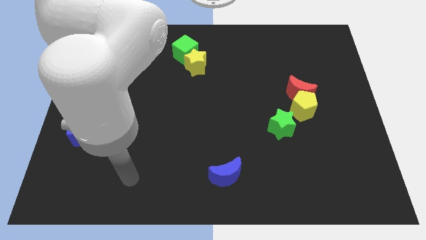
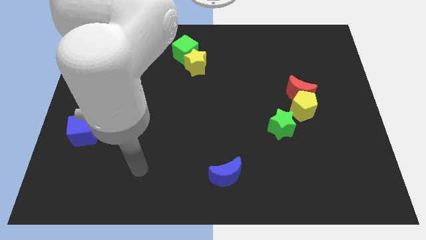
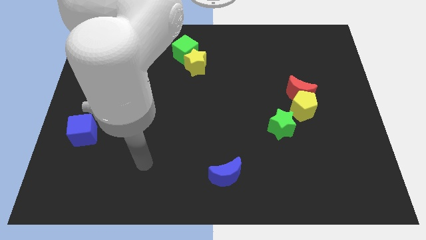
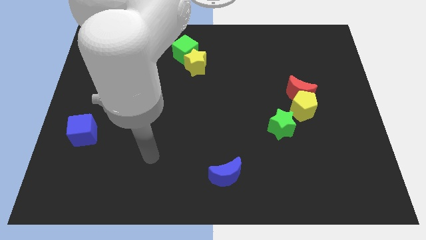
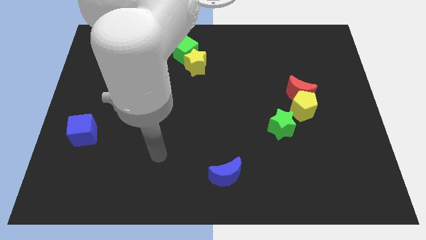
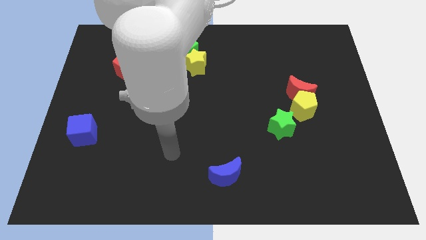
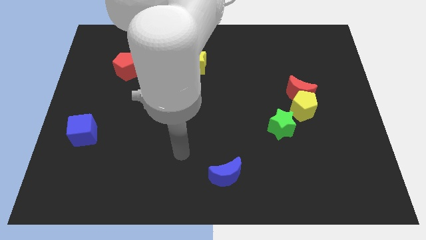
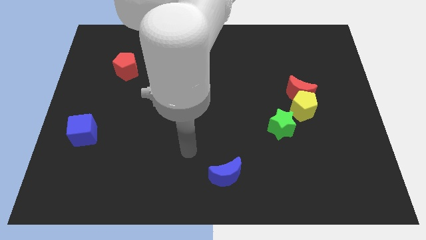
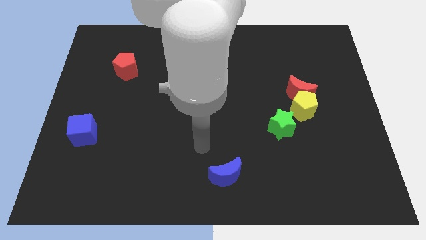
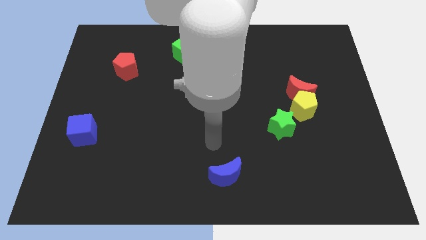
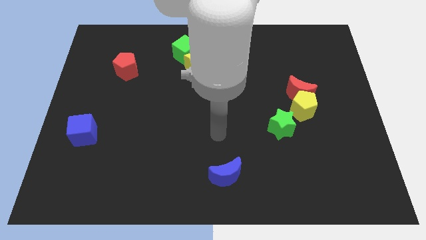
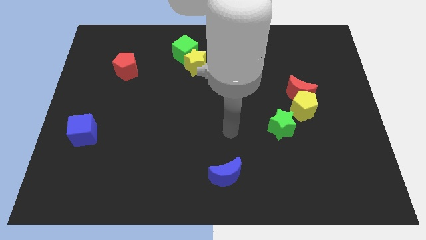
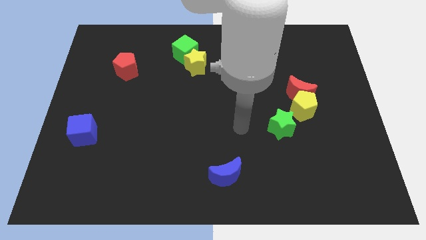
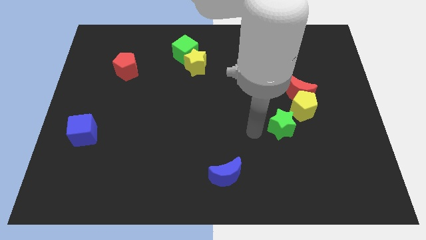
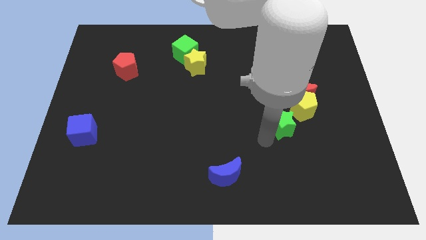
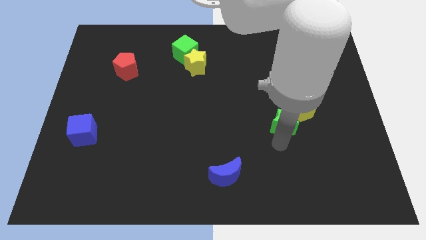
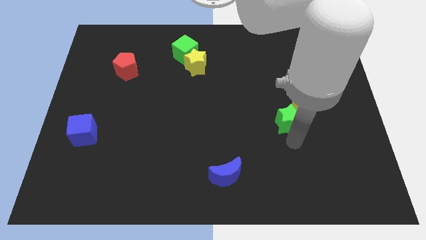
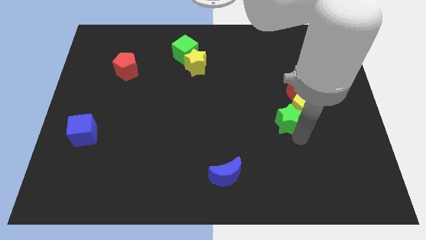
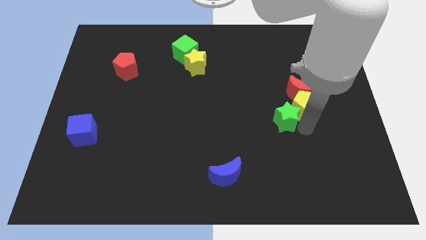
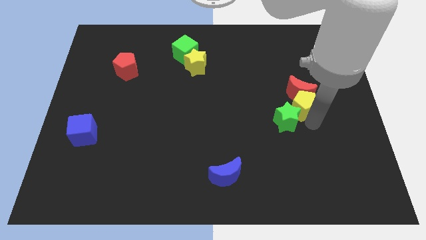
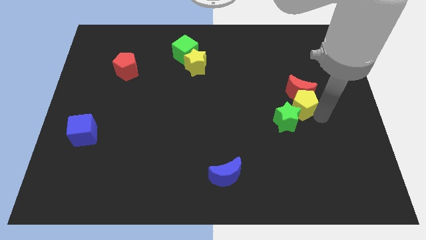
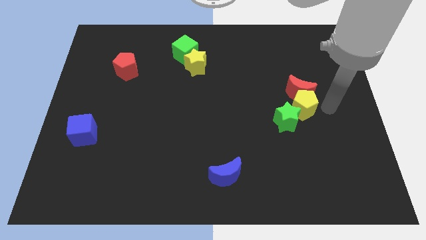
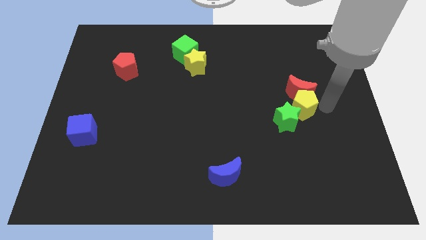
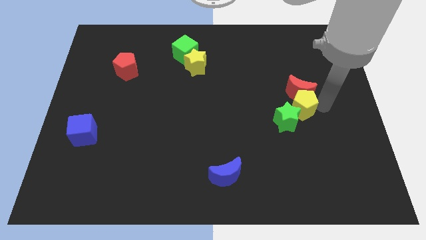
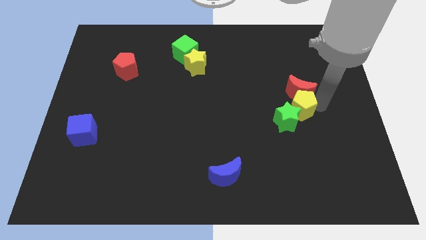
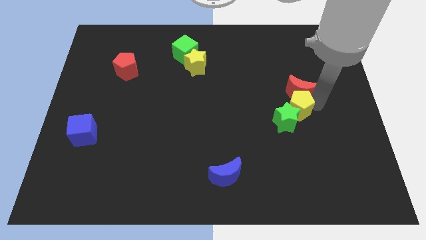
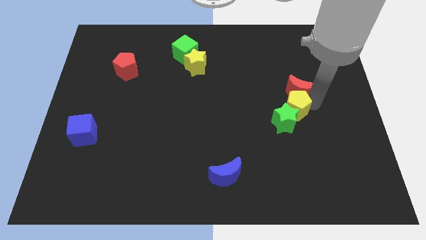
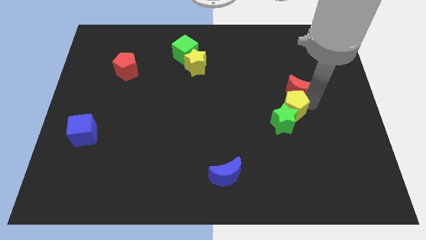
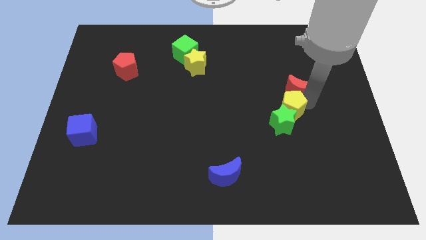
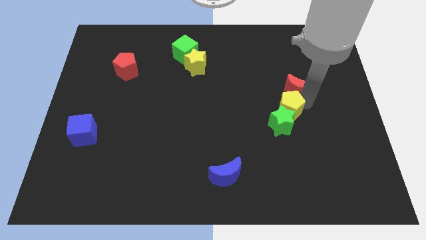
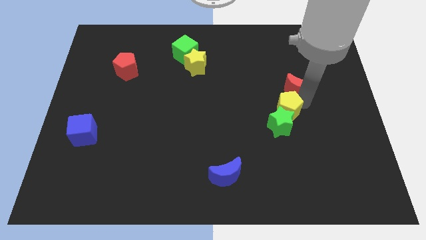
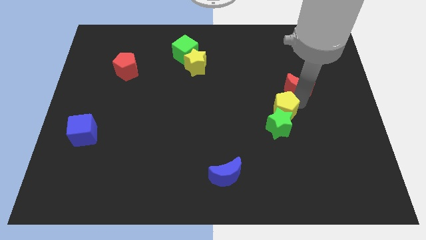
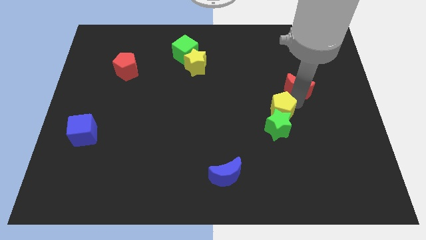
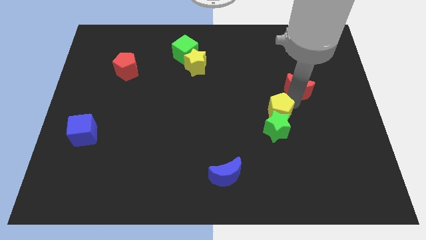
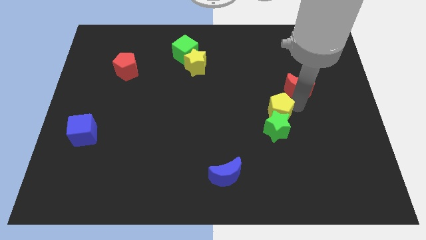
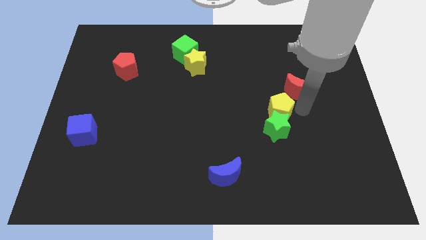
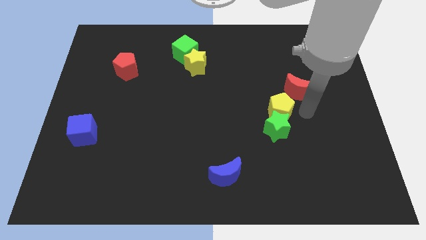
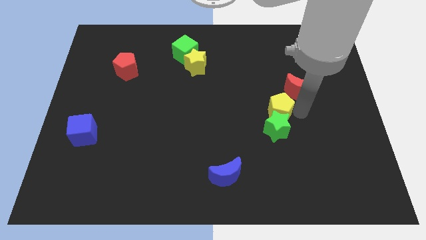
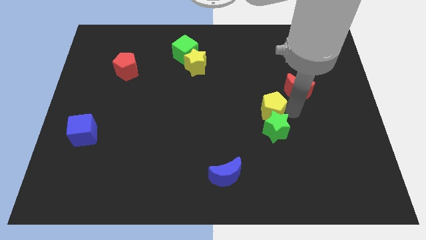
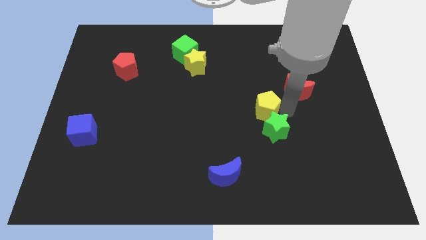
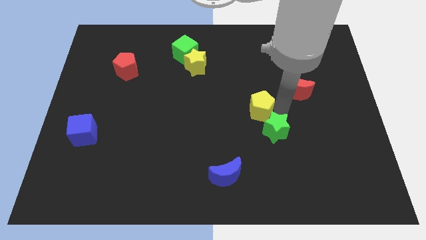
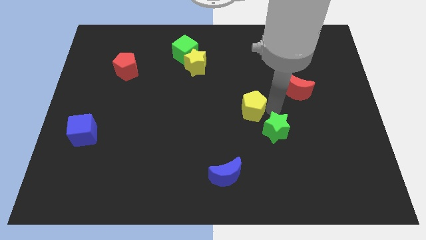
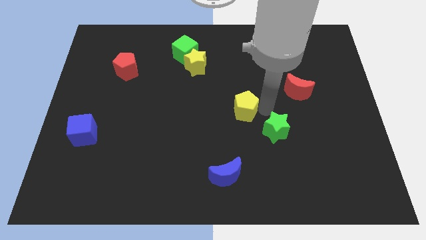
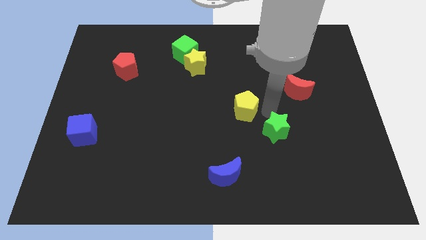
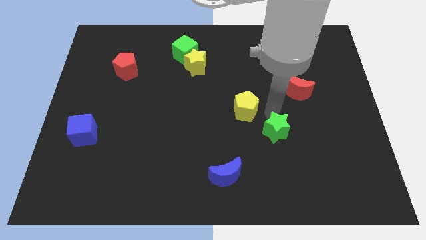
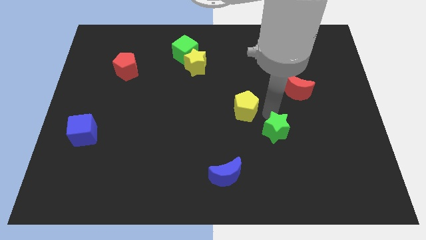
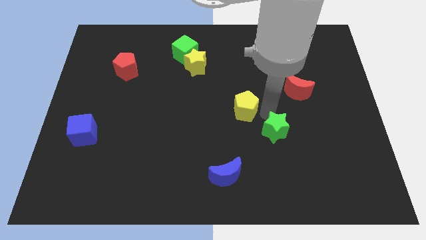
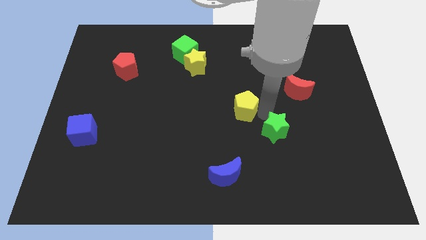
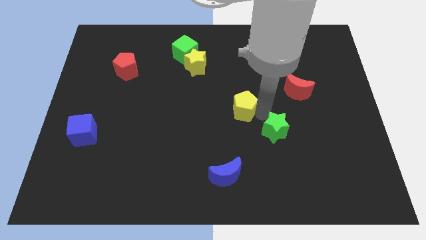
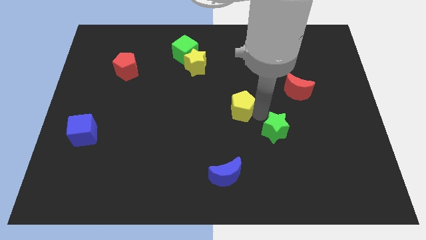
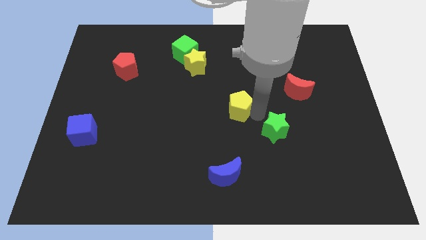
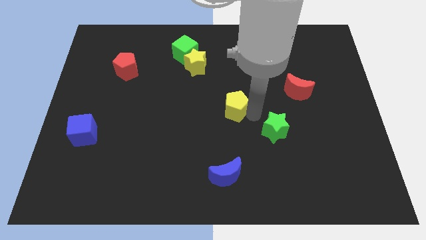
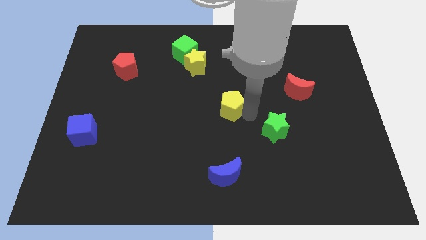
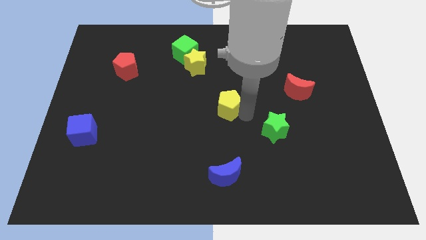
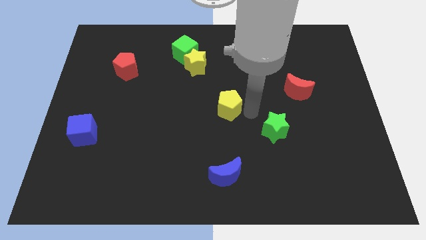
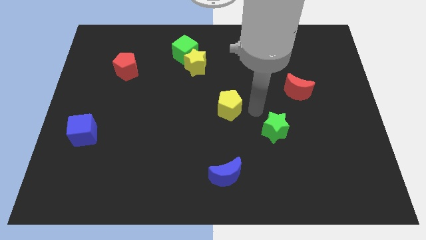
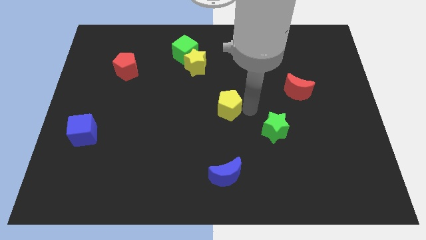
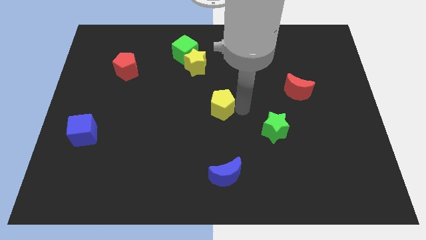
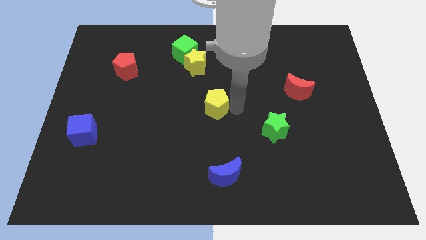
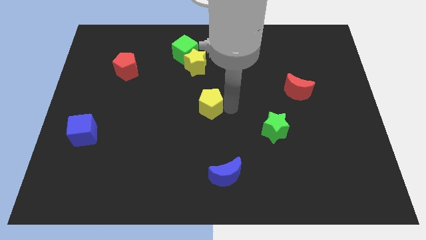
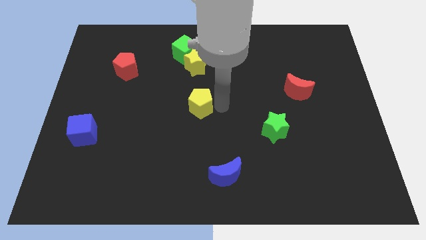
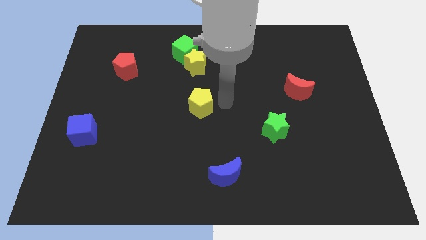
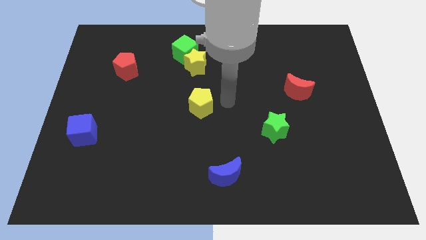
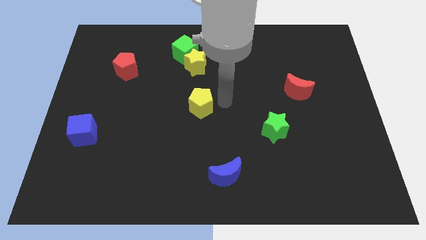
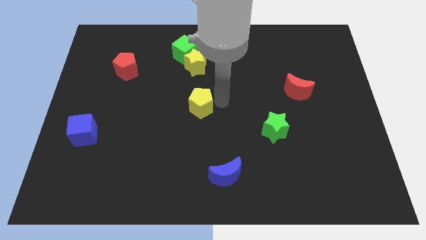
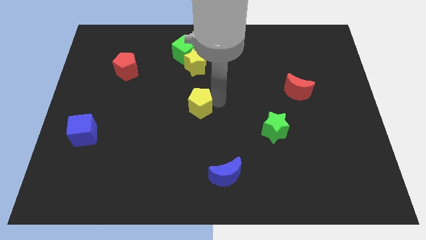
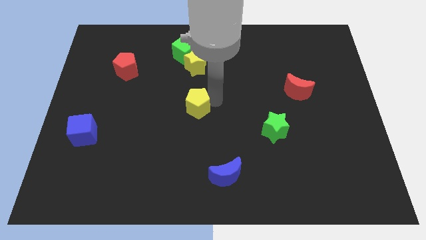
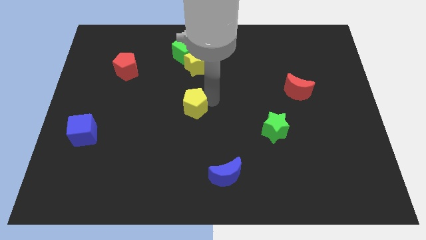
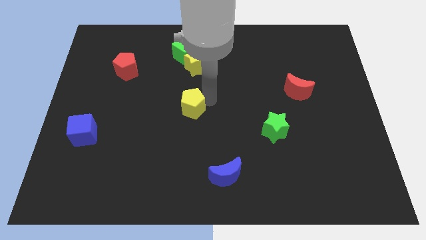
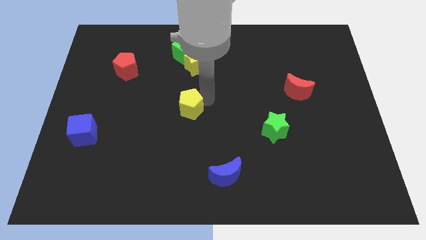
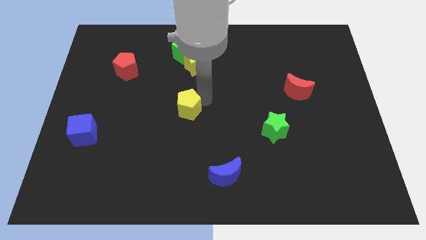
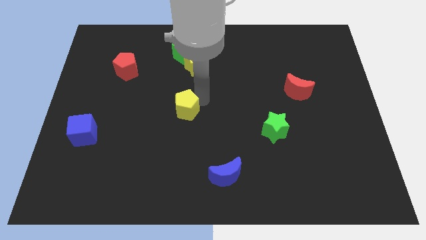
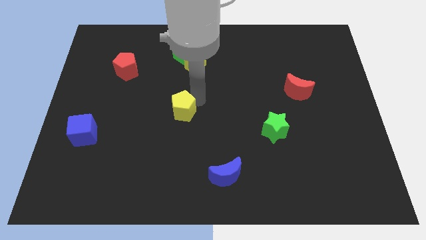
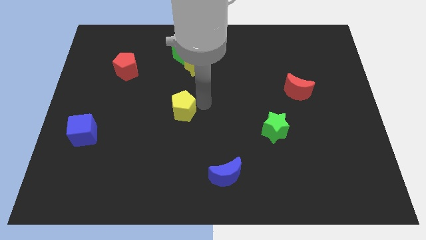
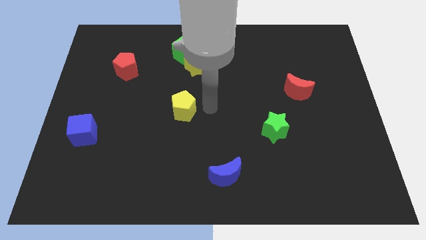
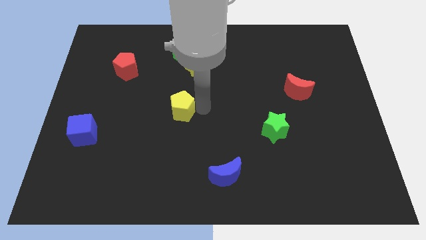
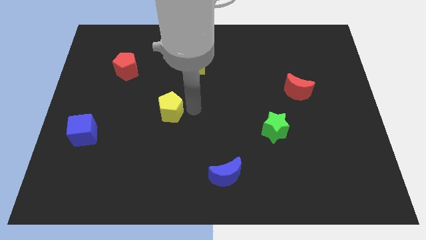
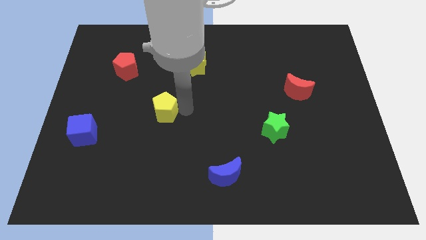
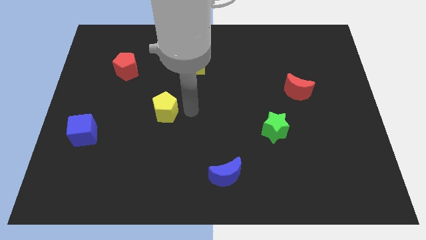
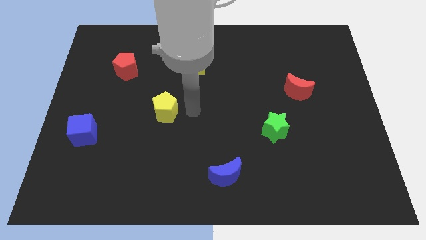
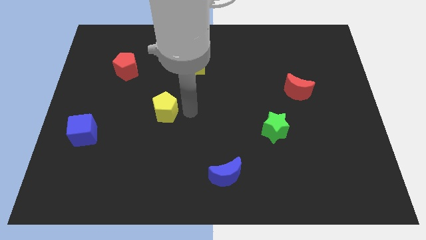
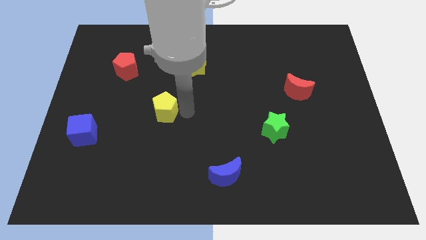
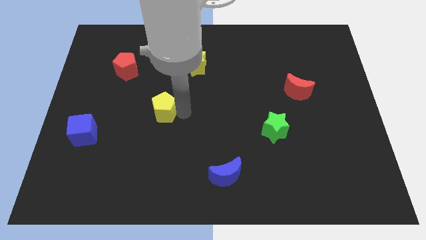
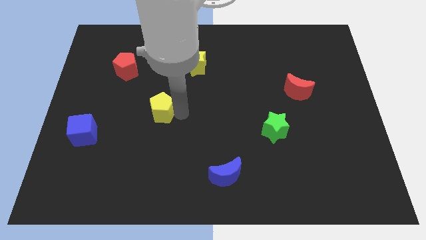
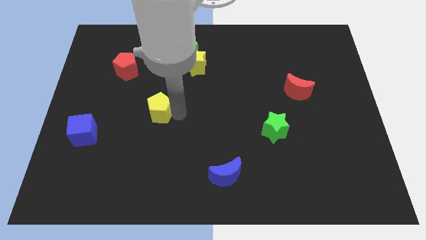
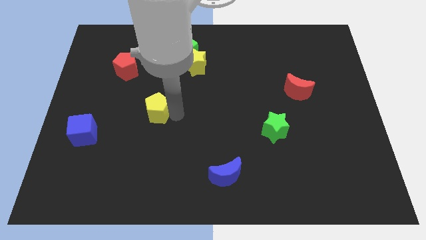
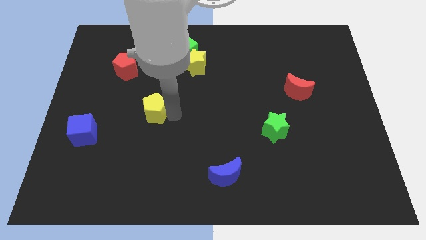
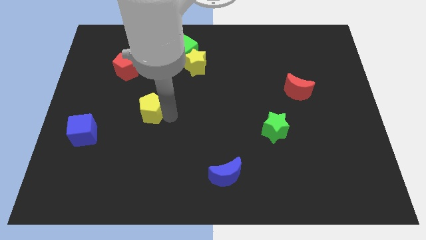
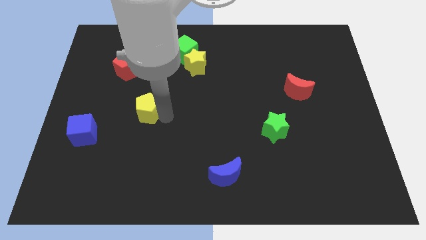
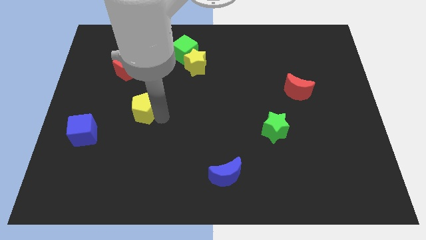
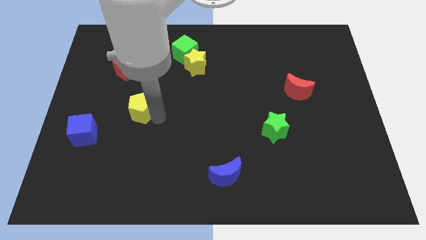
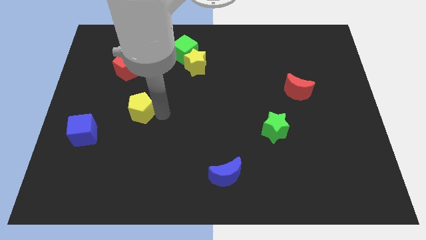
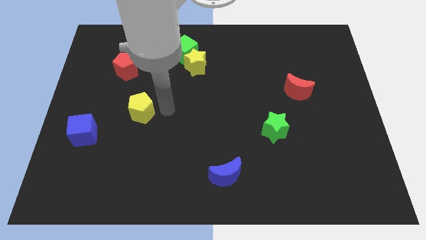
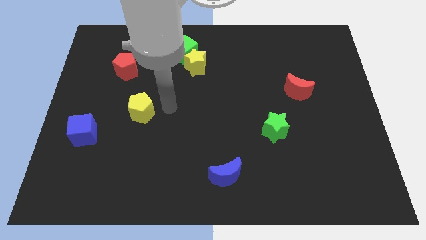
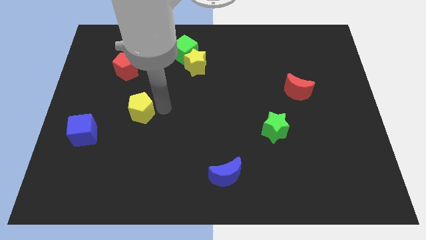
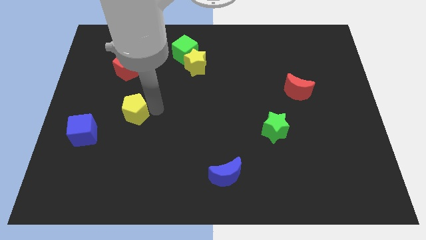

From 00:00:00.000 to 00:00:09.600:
put the yellow pentagon to the top right of the blue cube
